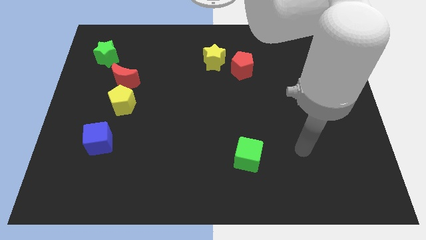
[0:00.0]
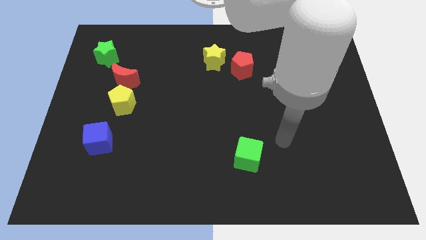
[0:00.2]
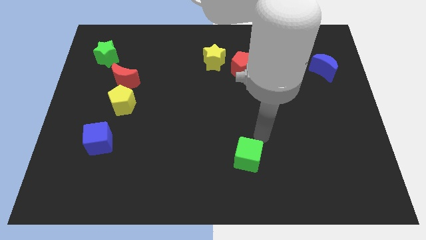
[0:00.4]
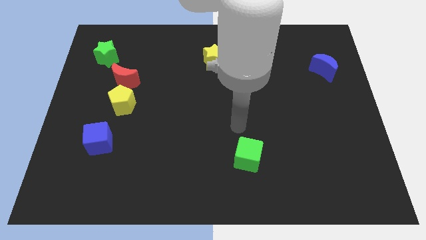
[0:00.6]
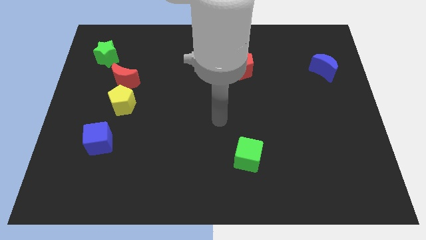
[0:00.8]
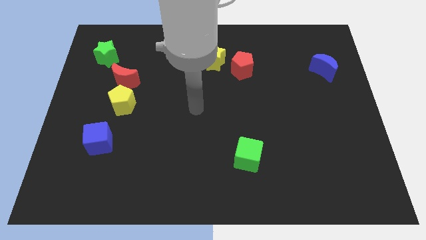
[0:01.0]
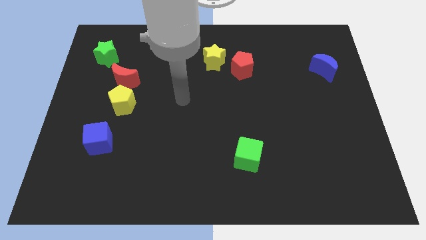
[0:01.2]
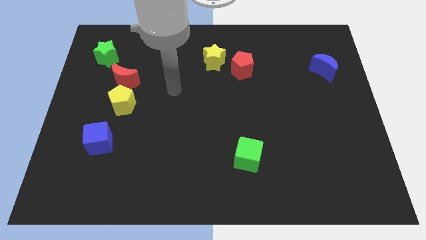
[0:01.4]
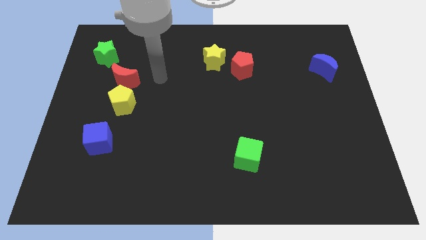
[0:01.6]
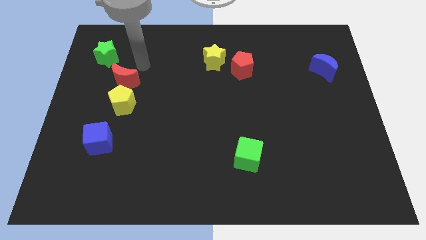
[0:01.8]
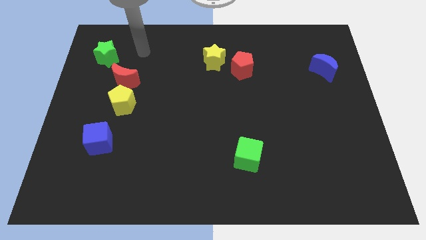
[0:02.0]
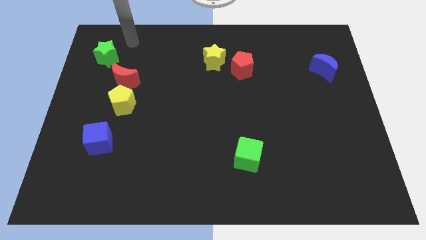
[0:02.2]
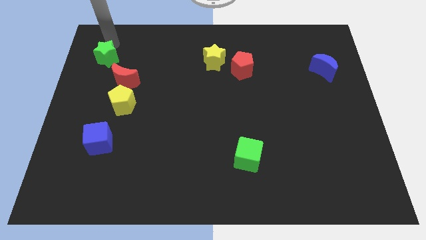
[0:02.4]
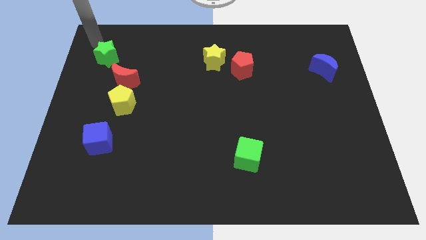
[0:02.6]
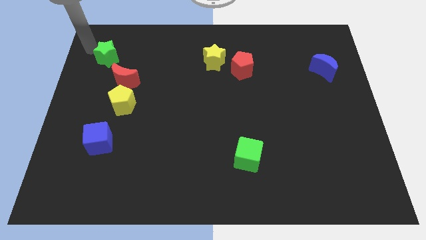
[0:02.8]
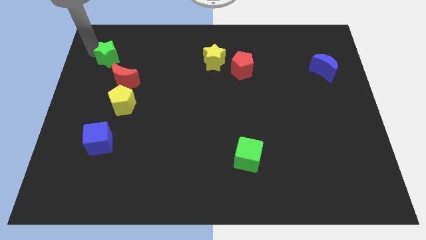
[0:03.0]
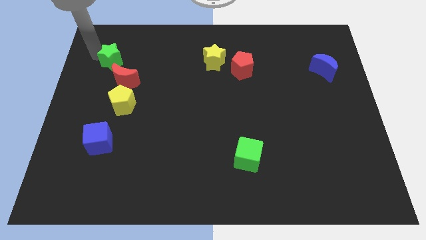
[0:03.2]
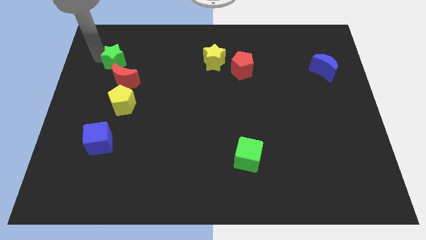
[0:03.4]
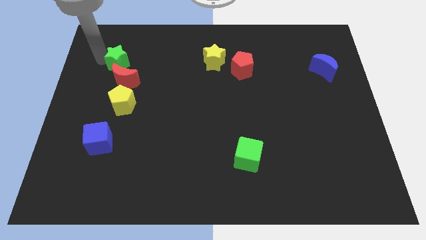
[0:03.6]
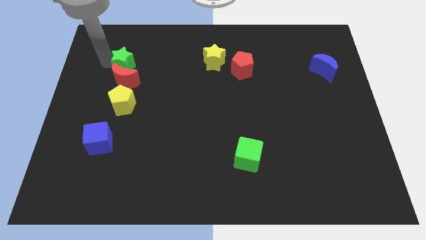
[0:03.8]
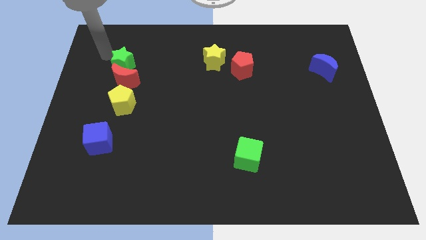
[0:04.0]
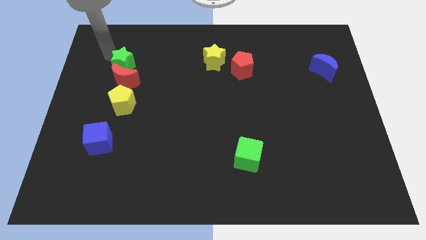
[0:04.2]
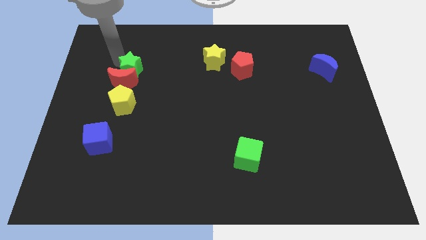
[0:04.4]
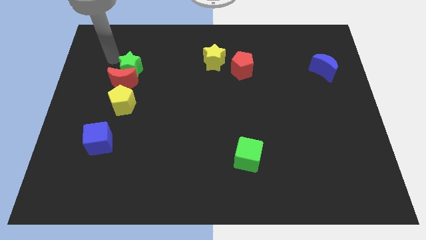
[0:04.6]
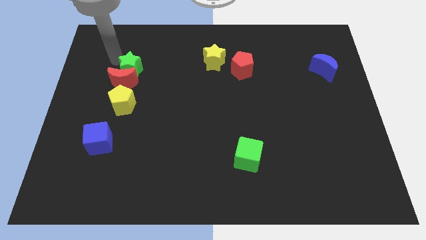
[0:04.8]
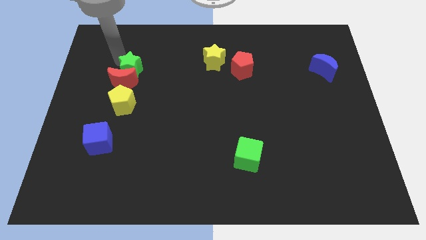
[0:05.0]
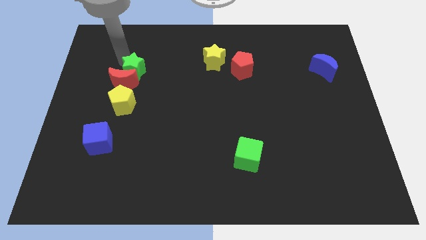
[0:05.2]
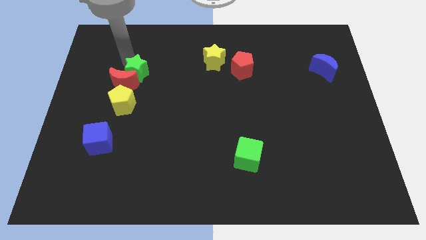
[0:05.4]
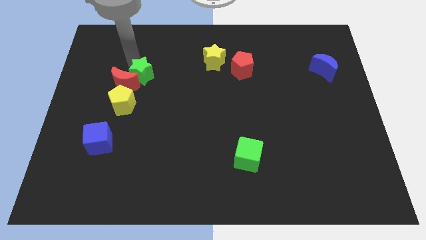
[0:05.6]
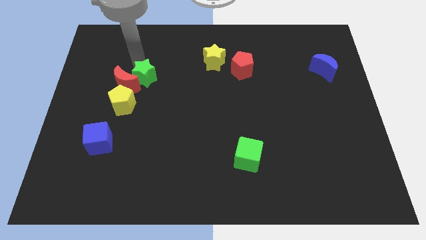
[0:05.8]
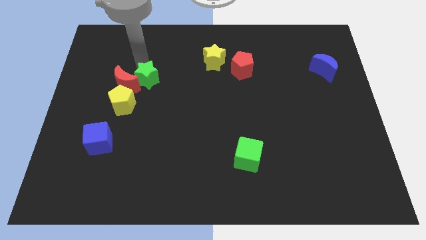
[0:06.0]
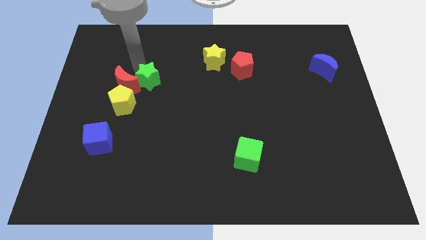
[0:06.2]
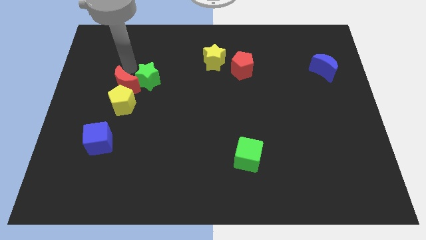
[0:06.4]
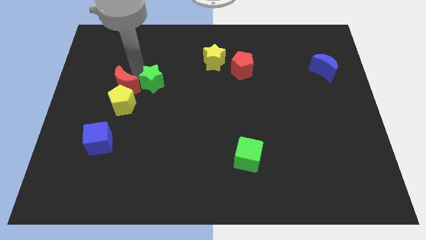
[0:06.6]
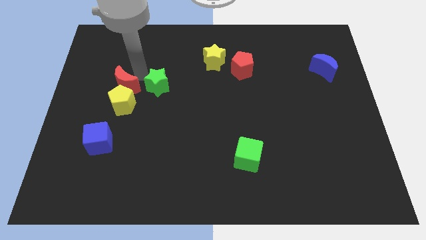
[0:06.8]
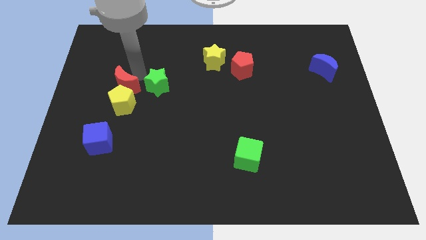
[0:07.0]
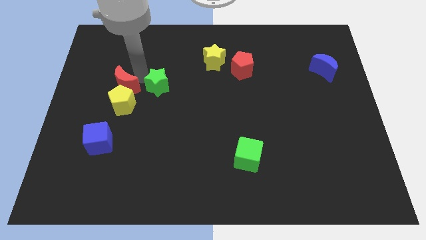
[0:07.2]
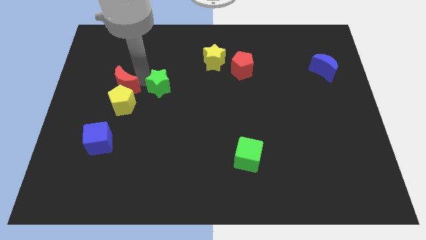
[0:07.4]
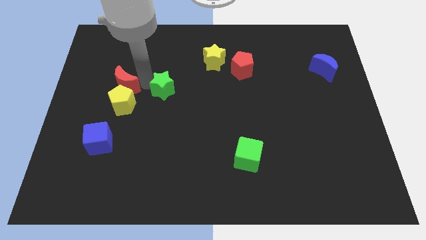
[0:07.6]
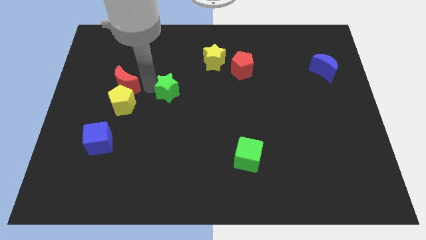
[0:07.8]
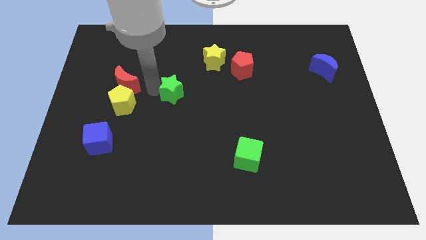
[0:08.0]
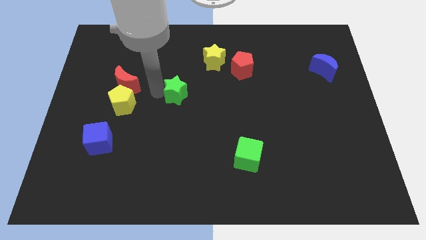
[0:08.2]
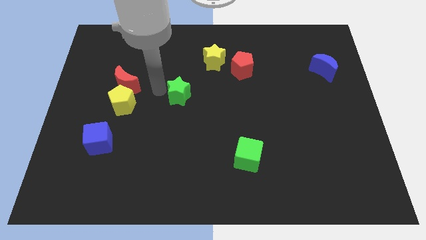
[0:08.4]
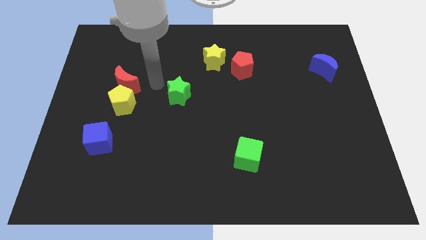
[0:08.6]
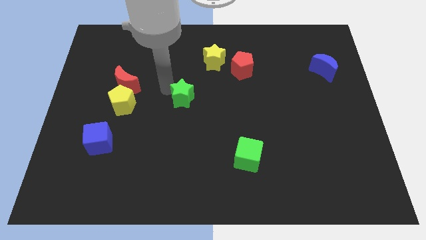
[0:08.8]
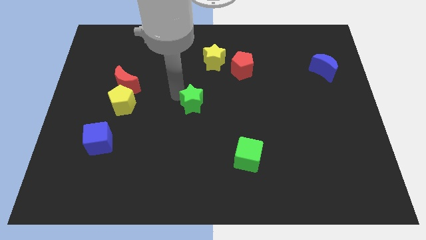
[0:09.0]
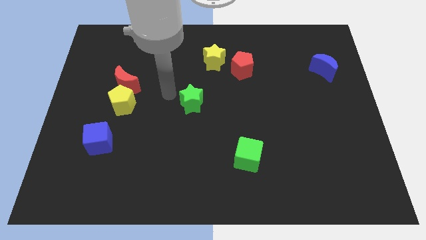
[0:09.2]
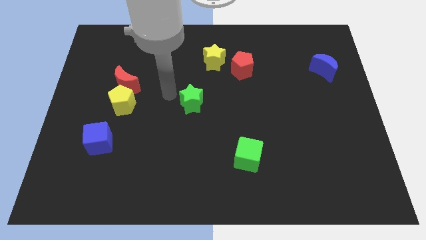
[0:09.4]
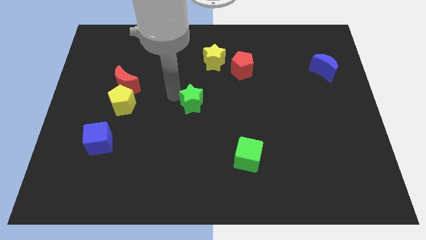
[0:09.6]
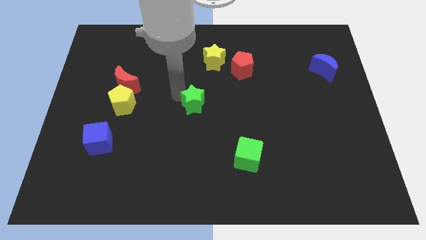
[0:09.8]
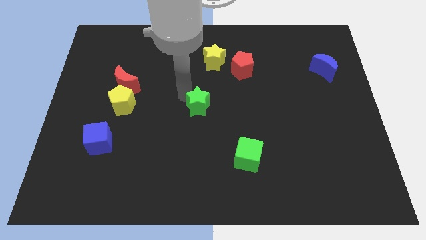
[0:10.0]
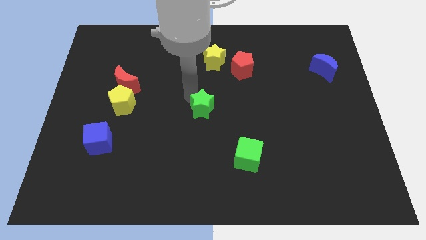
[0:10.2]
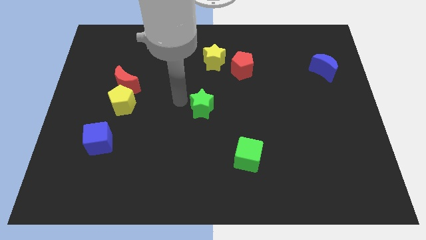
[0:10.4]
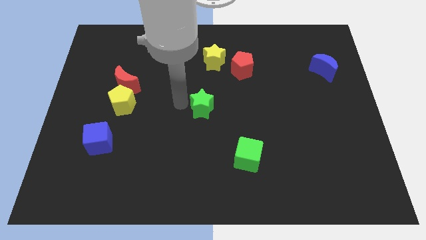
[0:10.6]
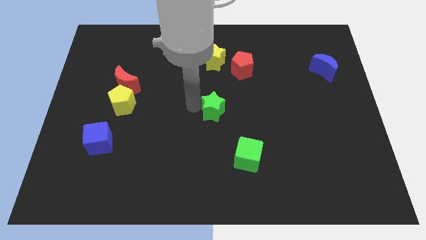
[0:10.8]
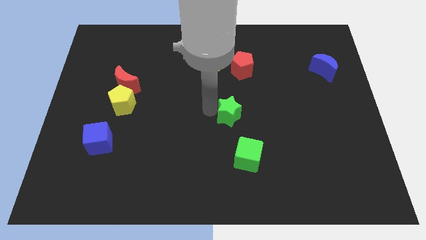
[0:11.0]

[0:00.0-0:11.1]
push the green star to the top side of the green cube

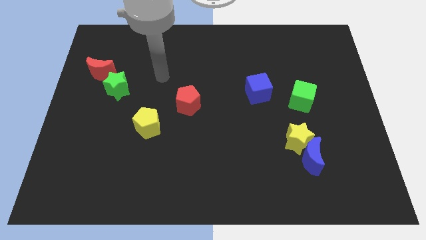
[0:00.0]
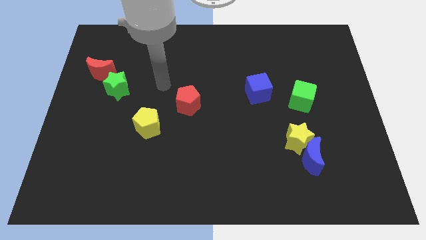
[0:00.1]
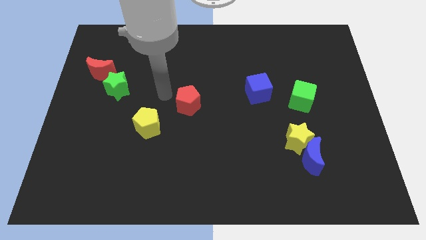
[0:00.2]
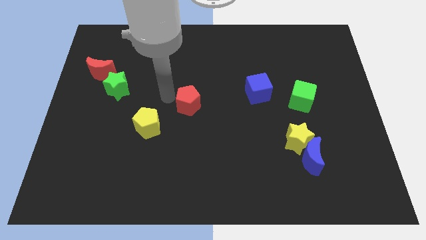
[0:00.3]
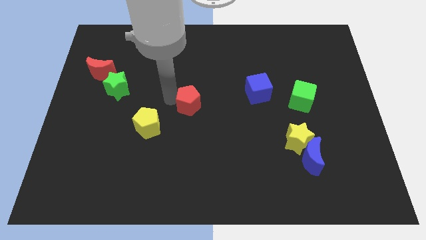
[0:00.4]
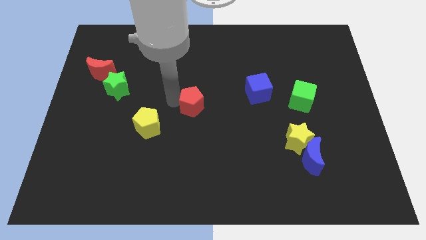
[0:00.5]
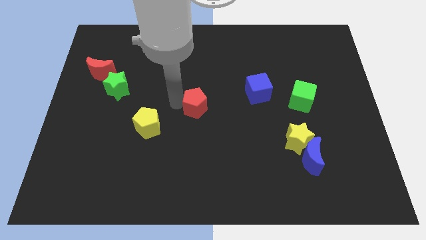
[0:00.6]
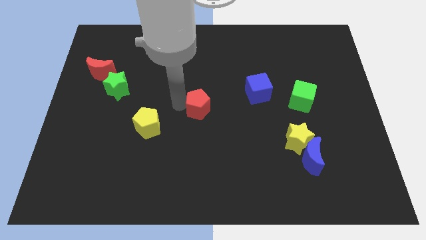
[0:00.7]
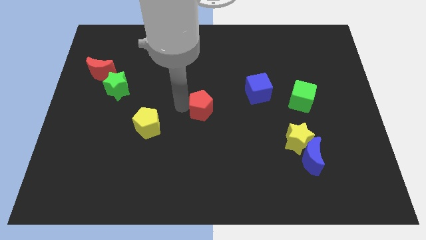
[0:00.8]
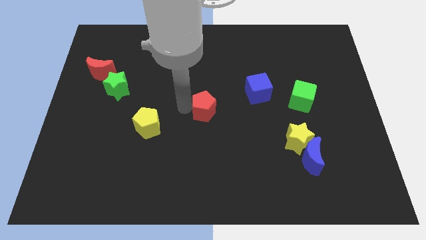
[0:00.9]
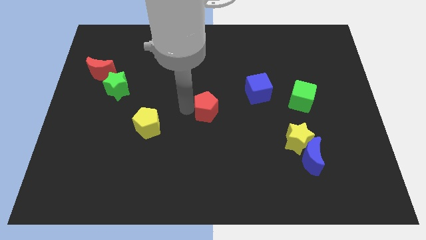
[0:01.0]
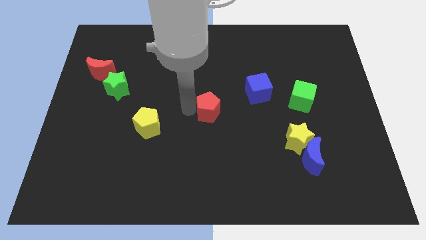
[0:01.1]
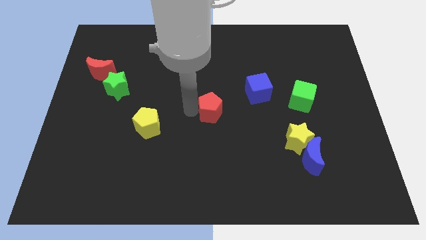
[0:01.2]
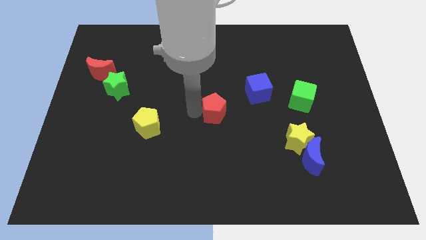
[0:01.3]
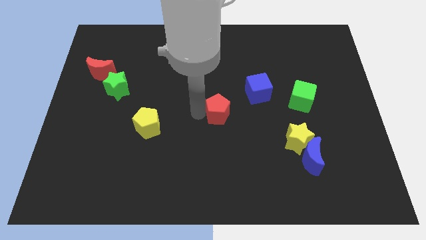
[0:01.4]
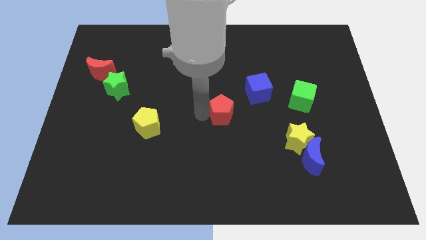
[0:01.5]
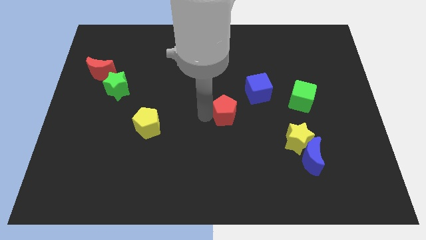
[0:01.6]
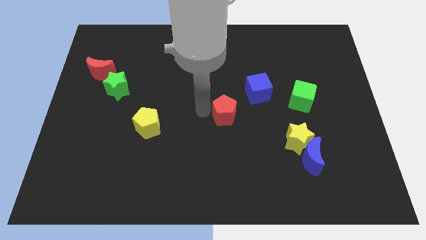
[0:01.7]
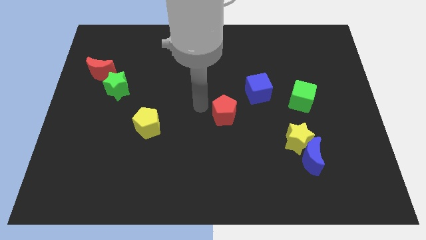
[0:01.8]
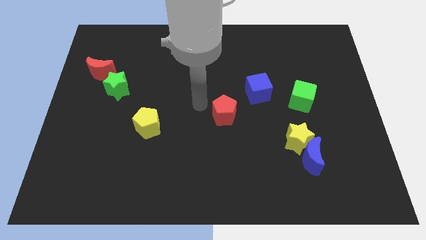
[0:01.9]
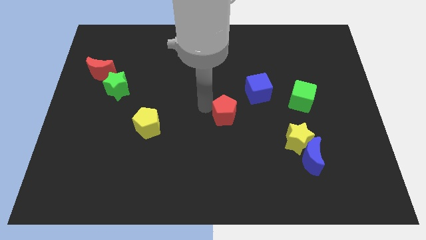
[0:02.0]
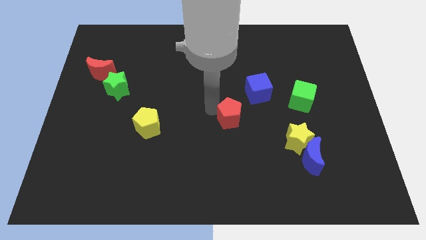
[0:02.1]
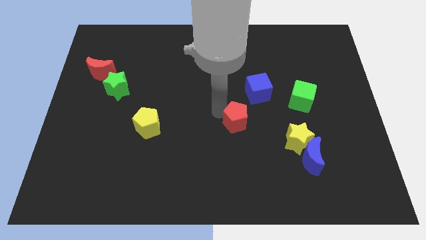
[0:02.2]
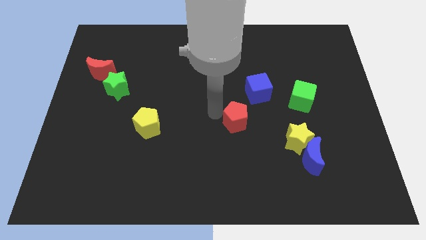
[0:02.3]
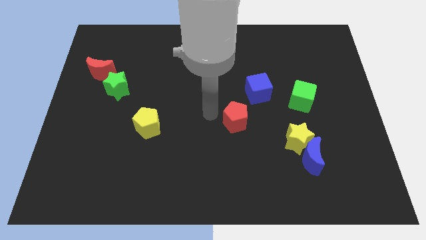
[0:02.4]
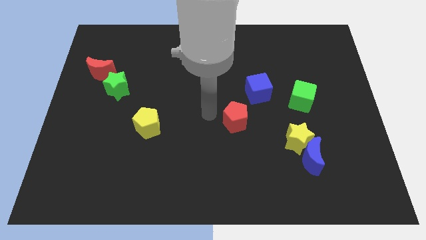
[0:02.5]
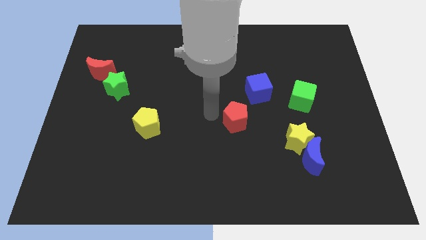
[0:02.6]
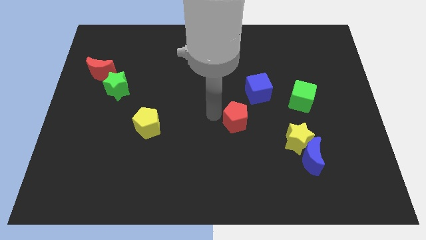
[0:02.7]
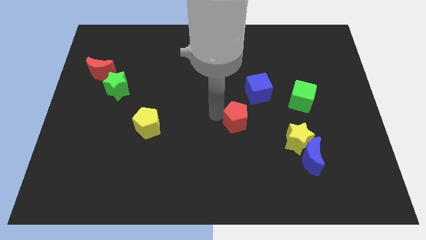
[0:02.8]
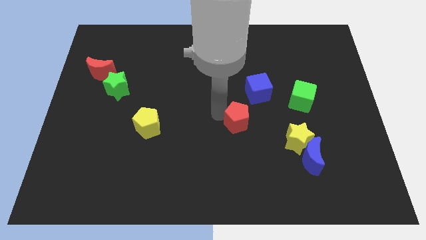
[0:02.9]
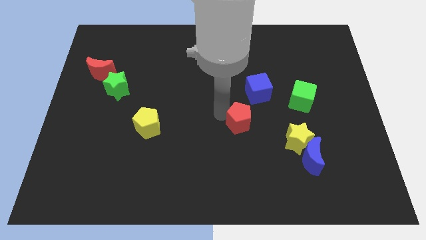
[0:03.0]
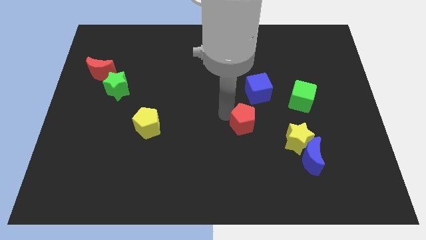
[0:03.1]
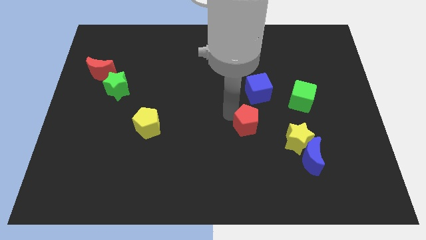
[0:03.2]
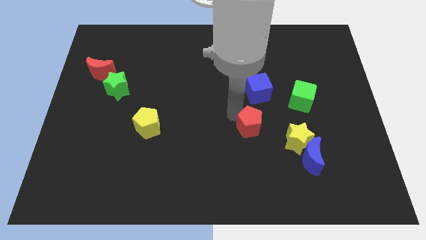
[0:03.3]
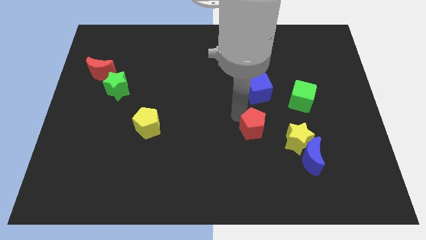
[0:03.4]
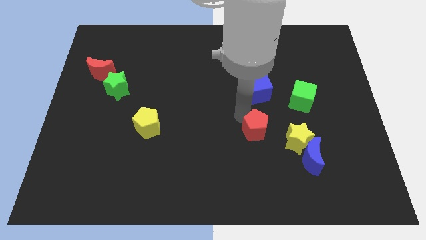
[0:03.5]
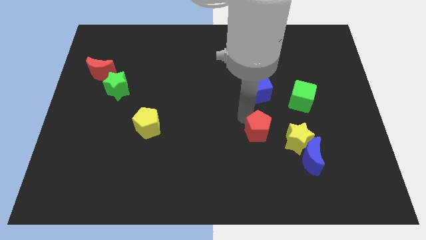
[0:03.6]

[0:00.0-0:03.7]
push the red pentagon diagonally up and to the left of the blue moon
